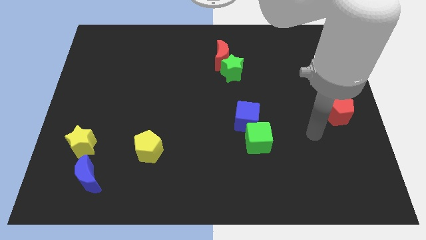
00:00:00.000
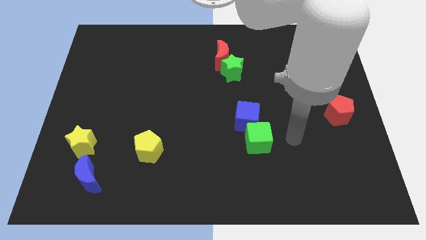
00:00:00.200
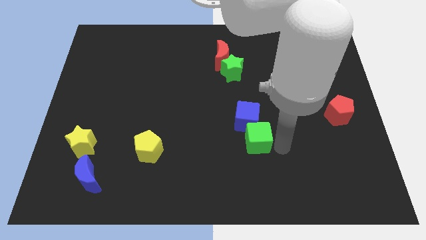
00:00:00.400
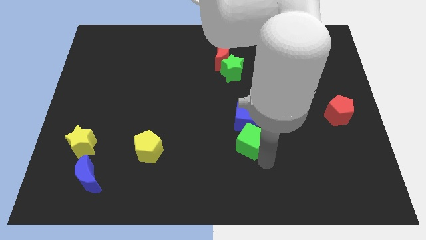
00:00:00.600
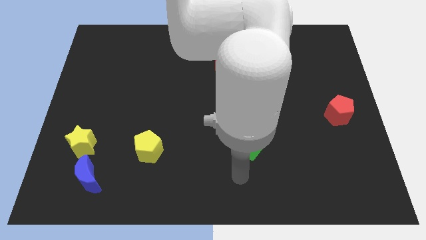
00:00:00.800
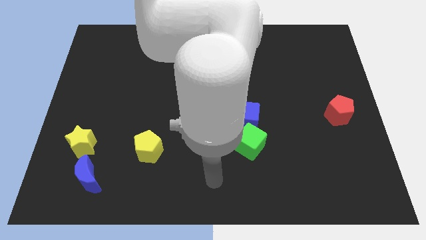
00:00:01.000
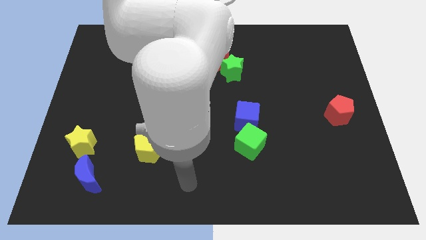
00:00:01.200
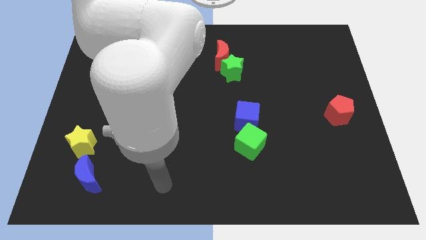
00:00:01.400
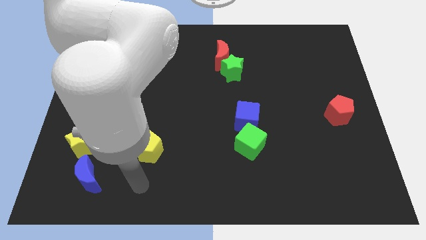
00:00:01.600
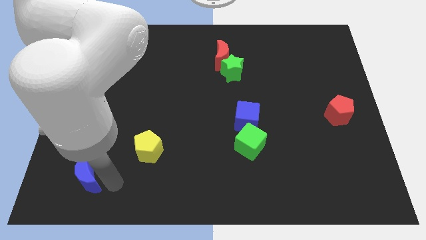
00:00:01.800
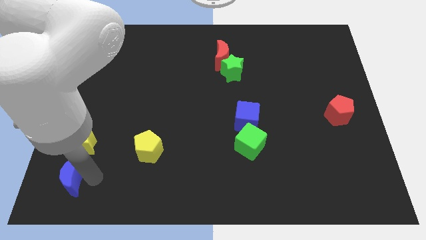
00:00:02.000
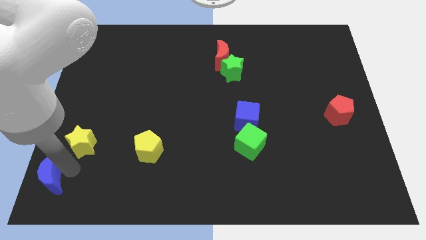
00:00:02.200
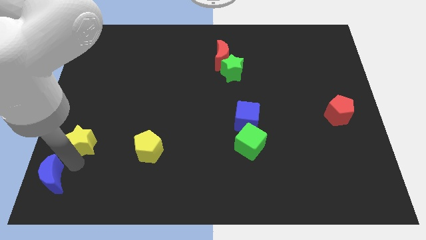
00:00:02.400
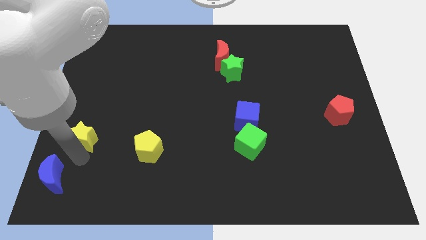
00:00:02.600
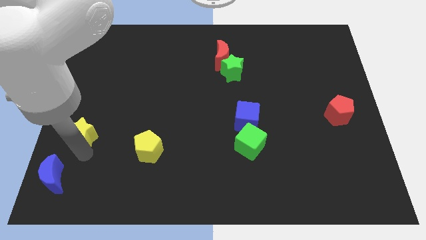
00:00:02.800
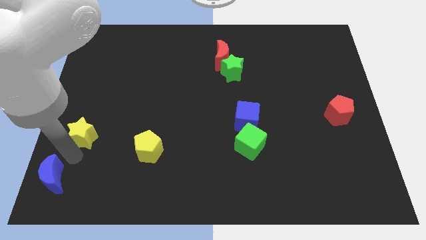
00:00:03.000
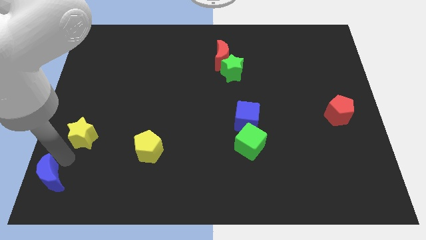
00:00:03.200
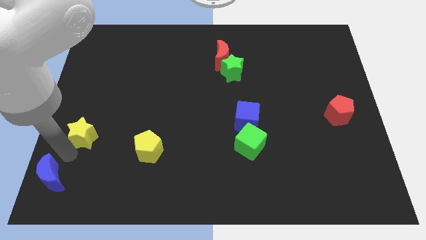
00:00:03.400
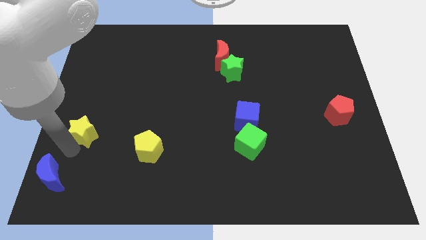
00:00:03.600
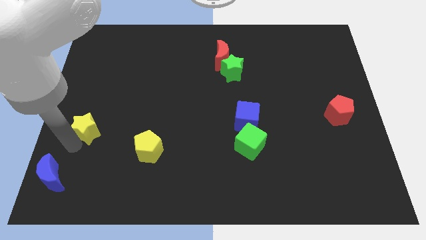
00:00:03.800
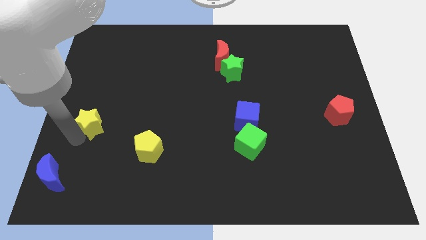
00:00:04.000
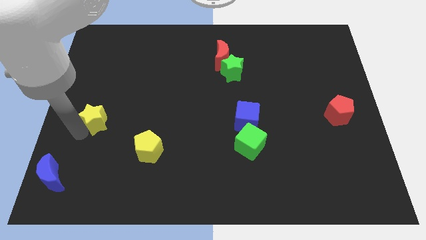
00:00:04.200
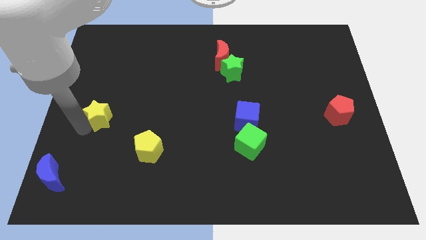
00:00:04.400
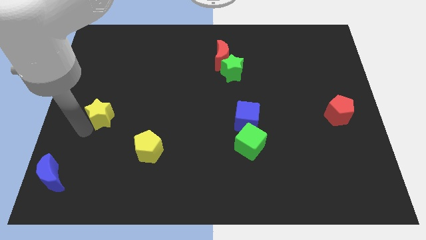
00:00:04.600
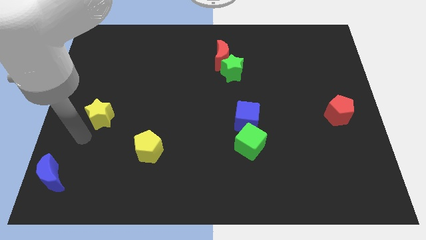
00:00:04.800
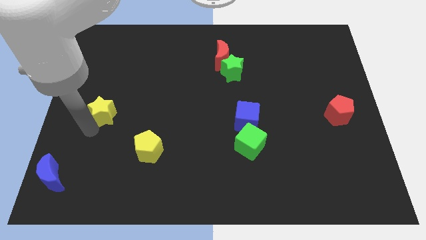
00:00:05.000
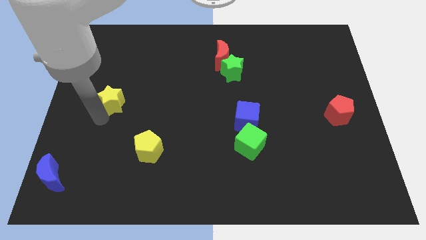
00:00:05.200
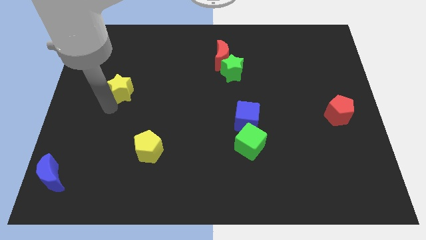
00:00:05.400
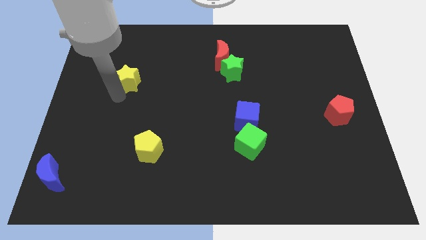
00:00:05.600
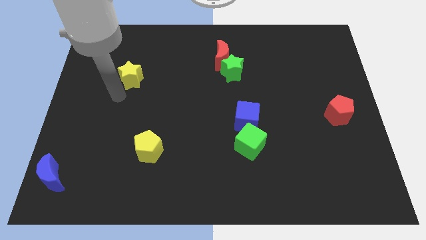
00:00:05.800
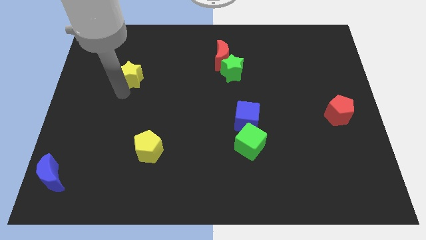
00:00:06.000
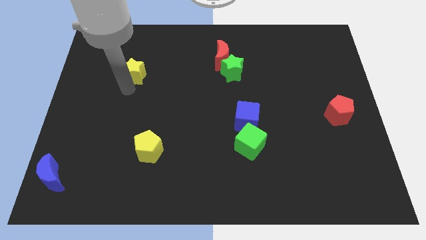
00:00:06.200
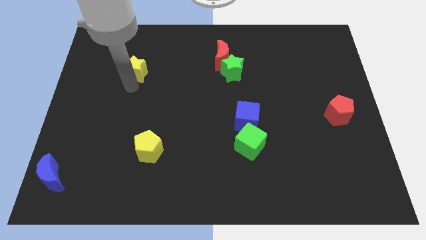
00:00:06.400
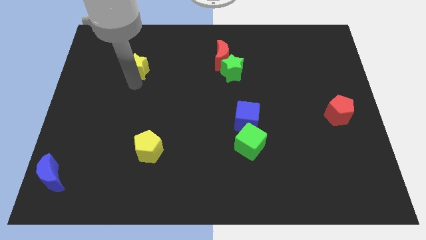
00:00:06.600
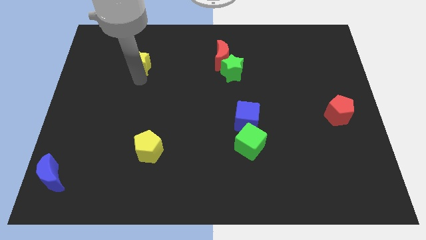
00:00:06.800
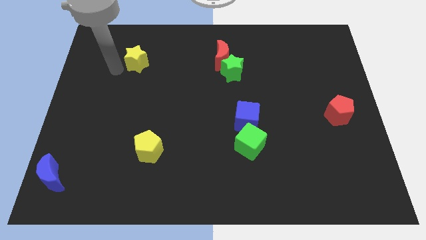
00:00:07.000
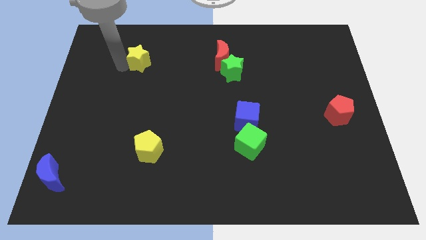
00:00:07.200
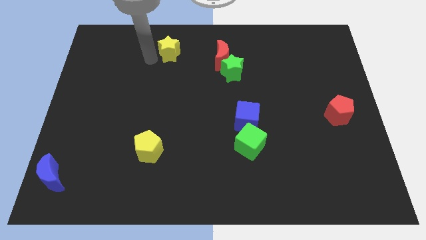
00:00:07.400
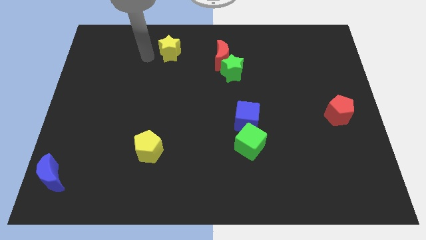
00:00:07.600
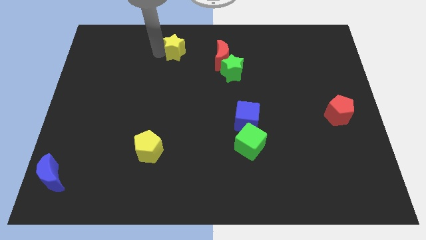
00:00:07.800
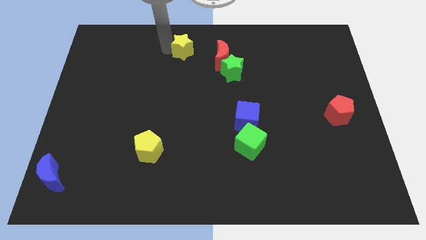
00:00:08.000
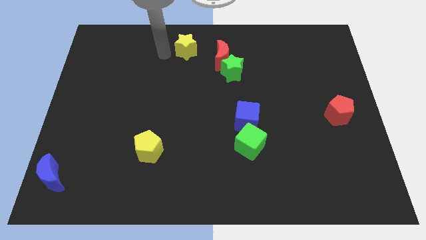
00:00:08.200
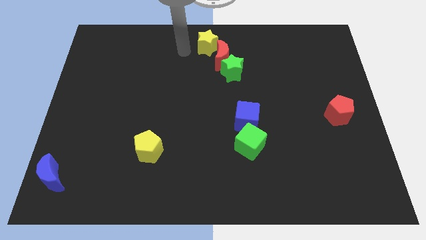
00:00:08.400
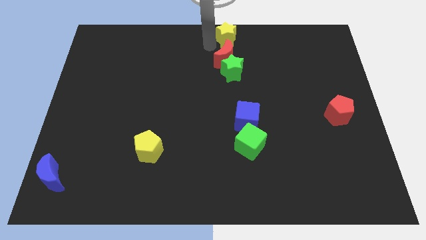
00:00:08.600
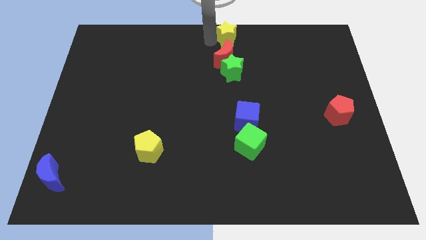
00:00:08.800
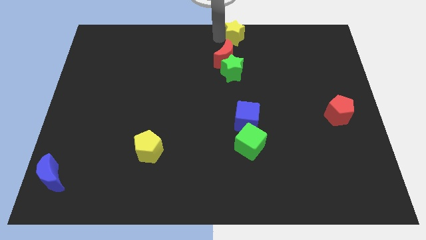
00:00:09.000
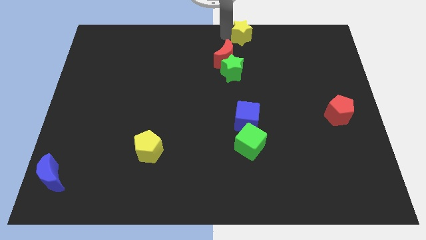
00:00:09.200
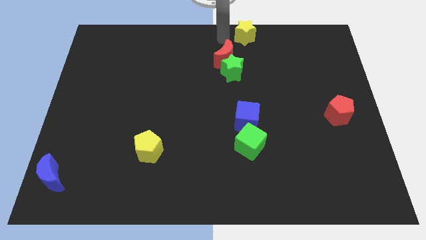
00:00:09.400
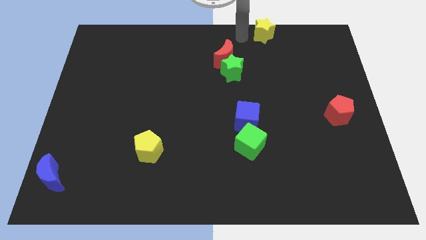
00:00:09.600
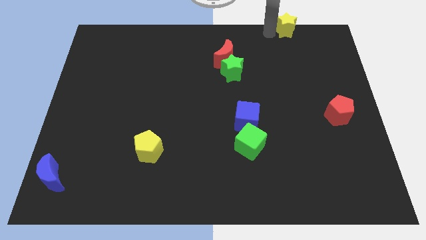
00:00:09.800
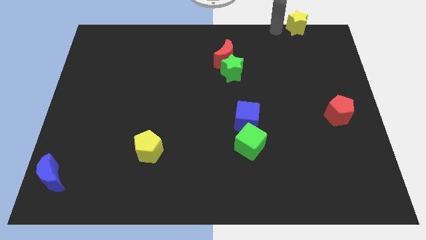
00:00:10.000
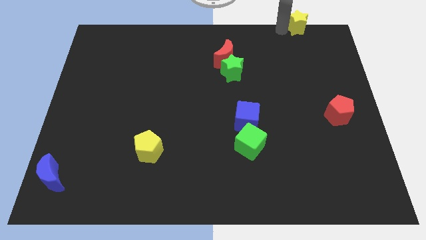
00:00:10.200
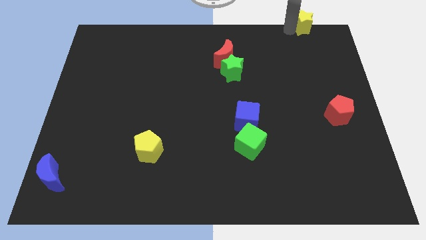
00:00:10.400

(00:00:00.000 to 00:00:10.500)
slide the yellow star to the upper right corner

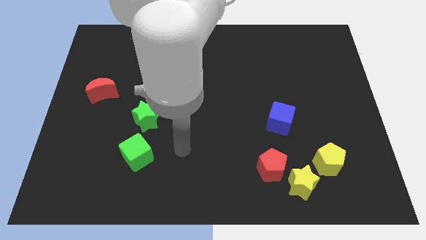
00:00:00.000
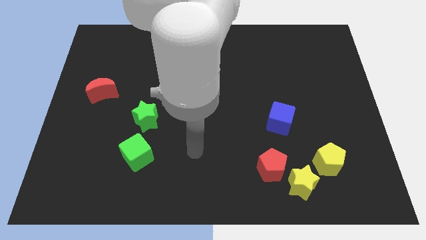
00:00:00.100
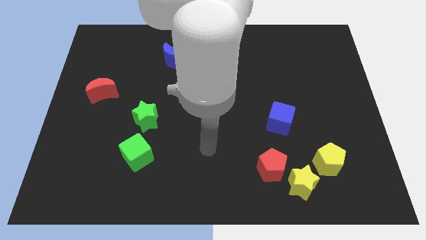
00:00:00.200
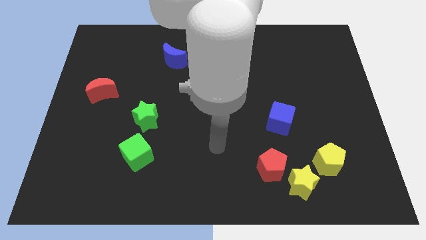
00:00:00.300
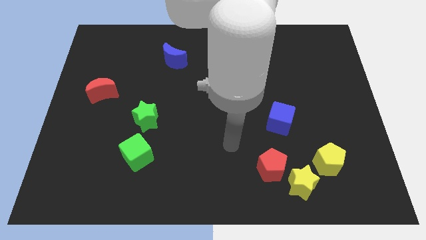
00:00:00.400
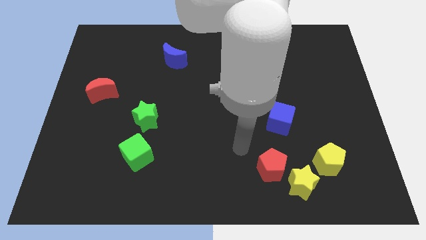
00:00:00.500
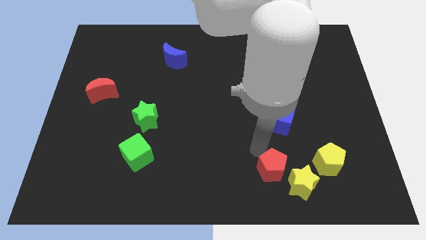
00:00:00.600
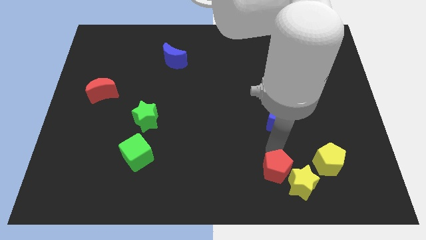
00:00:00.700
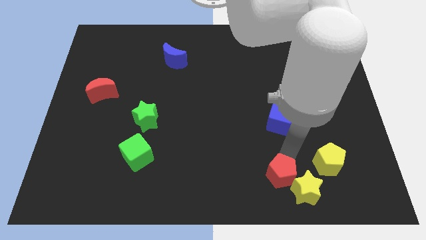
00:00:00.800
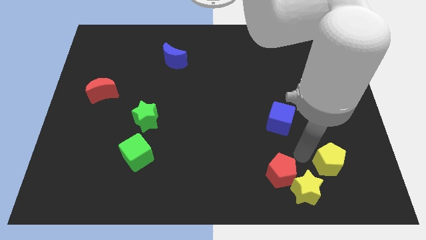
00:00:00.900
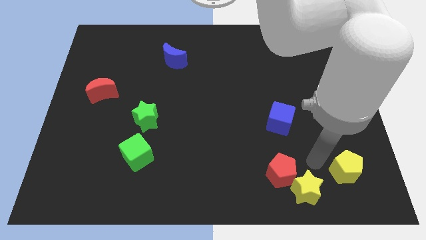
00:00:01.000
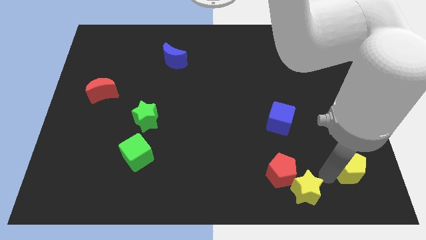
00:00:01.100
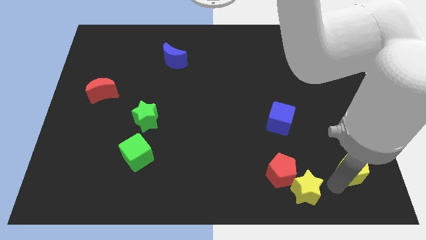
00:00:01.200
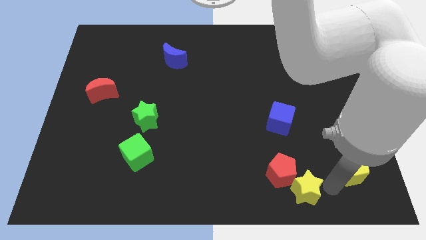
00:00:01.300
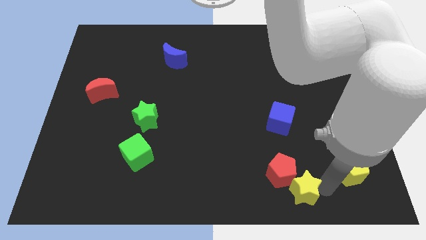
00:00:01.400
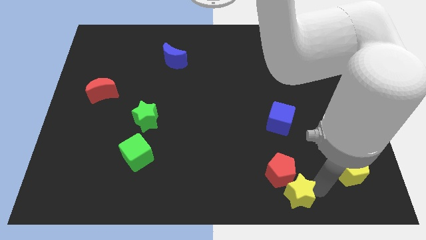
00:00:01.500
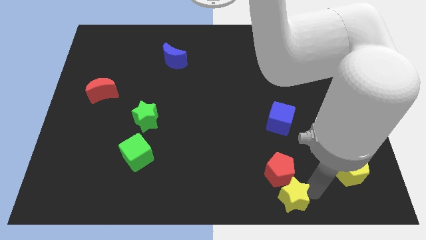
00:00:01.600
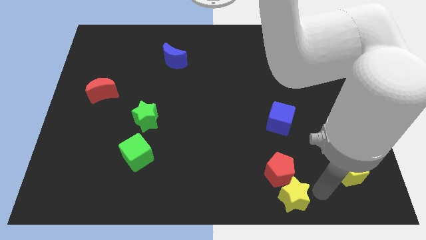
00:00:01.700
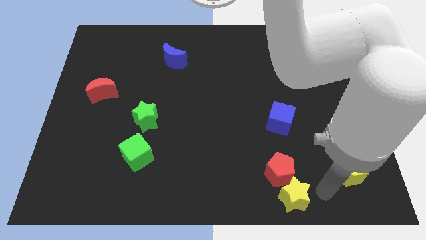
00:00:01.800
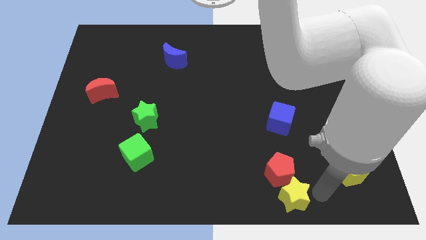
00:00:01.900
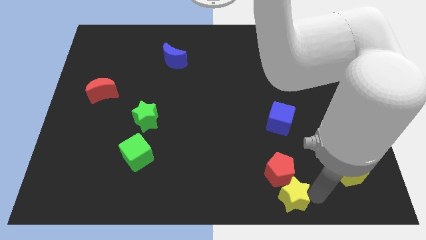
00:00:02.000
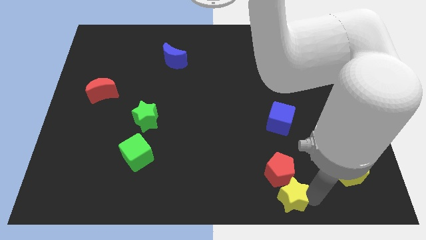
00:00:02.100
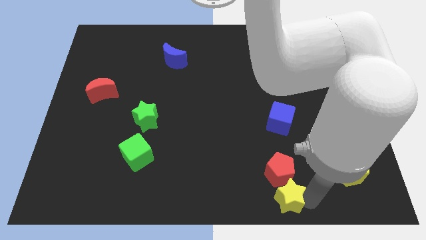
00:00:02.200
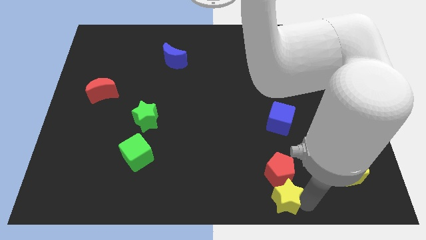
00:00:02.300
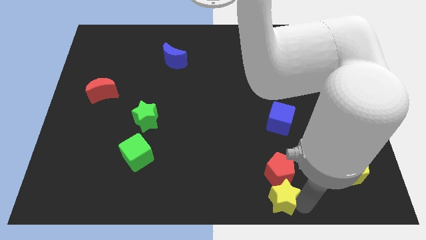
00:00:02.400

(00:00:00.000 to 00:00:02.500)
move the yellow star to the bottom
